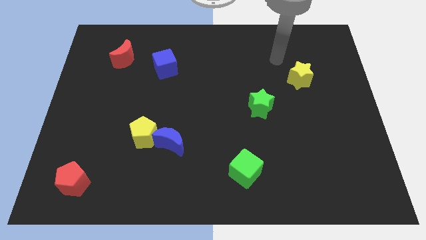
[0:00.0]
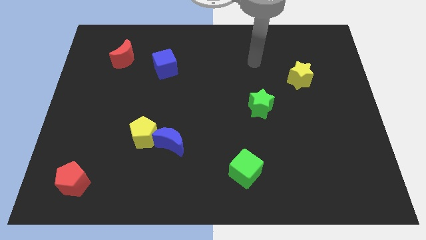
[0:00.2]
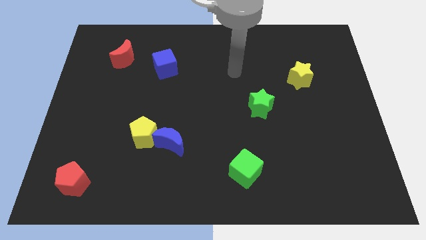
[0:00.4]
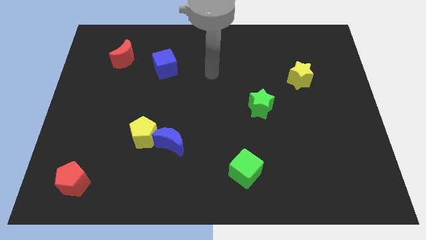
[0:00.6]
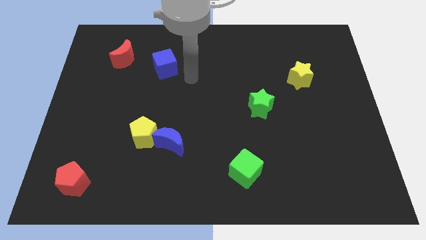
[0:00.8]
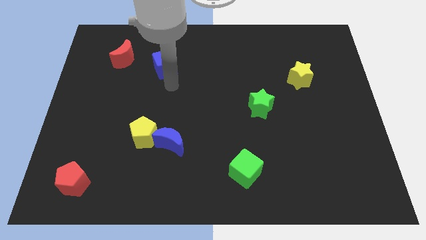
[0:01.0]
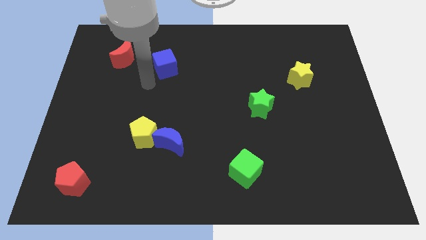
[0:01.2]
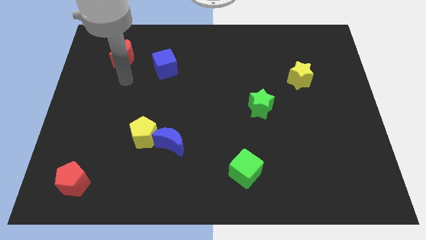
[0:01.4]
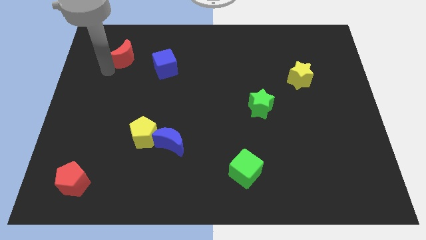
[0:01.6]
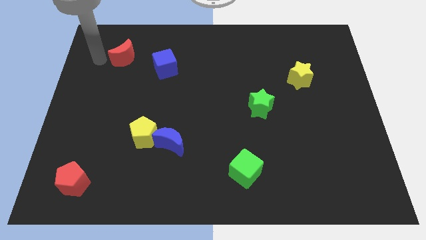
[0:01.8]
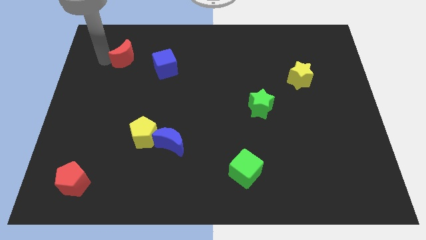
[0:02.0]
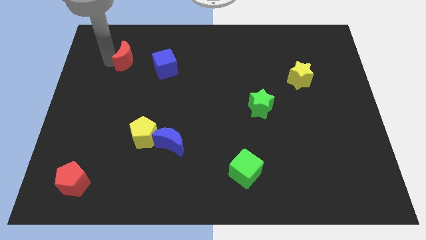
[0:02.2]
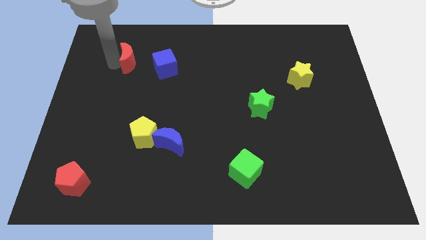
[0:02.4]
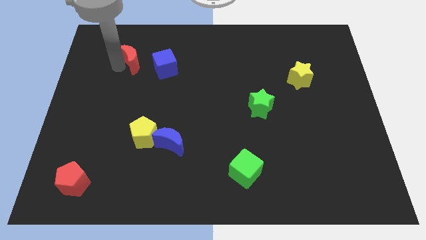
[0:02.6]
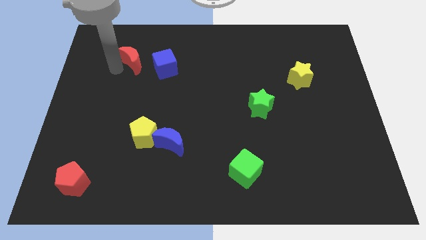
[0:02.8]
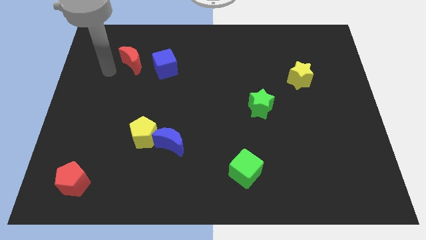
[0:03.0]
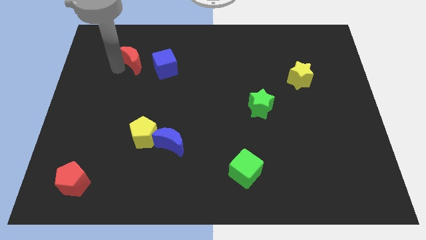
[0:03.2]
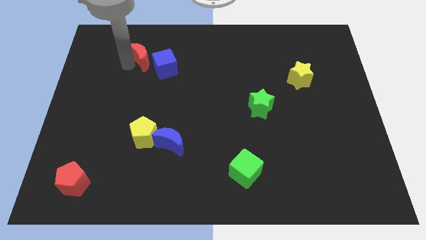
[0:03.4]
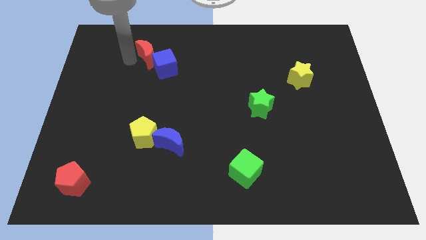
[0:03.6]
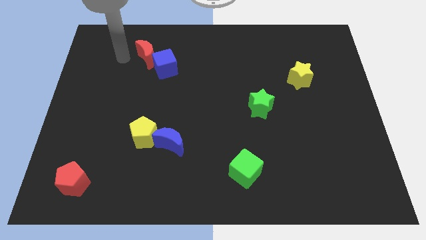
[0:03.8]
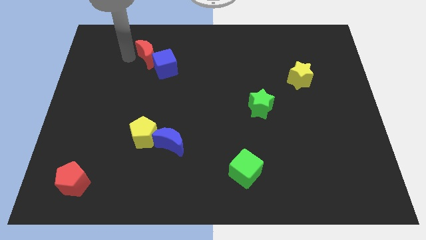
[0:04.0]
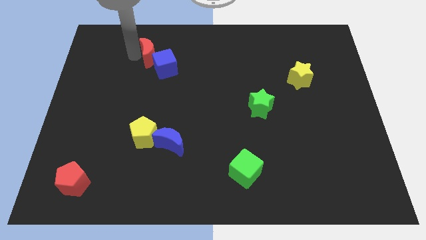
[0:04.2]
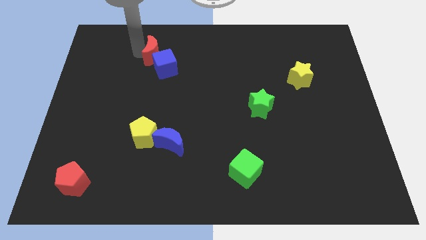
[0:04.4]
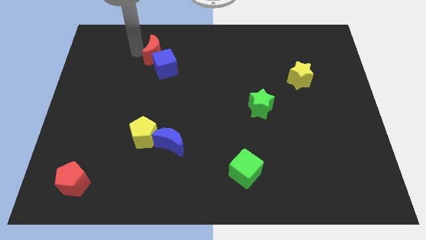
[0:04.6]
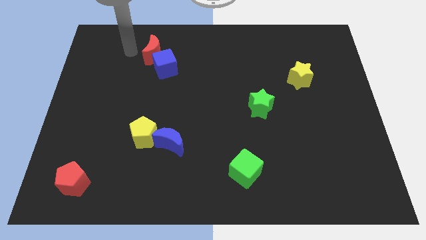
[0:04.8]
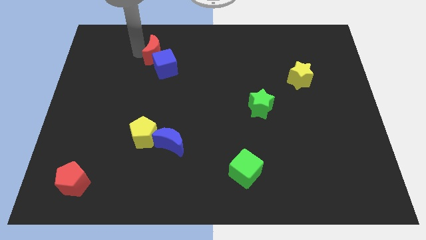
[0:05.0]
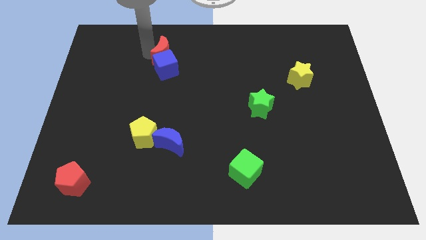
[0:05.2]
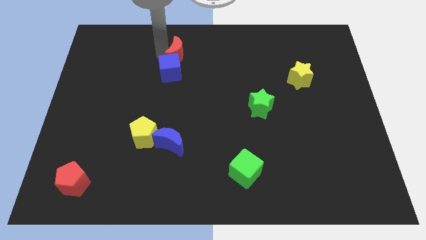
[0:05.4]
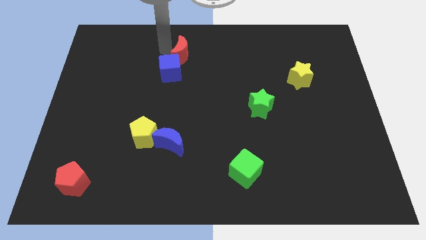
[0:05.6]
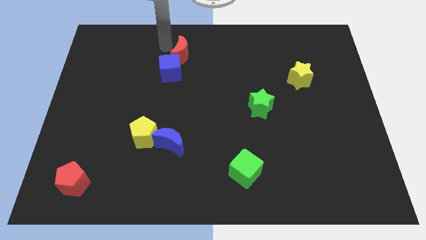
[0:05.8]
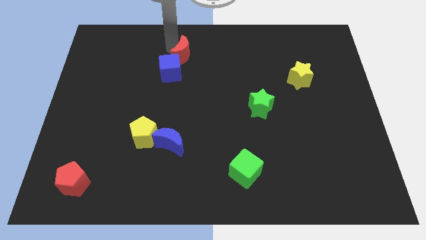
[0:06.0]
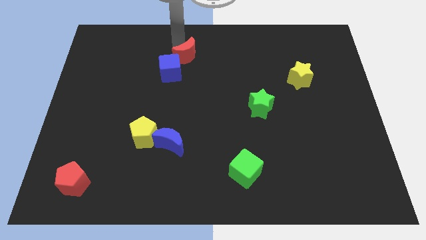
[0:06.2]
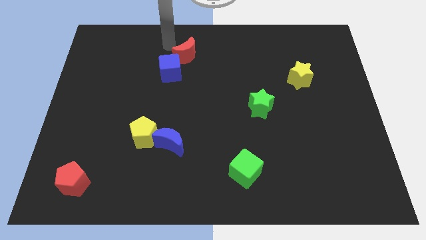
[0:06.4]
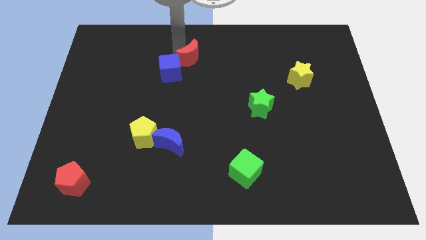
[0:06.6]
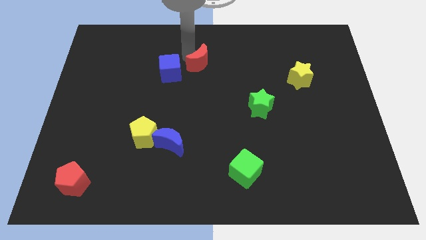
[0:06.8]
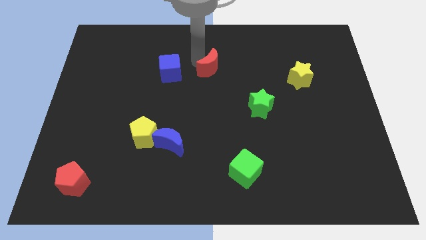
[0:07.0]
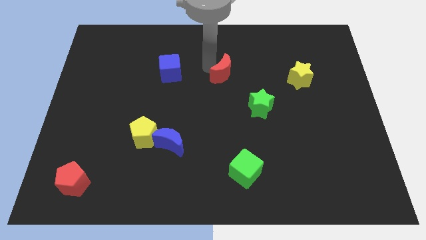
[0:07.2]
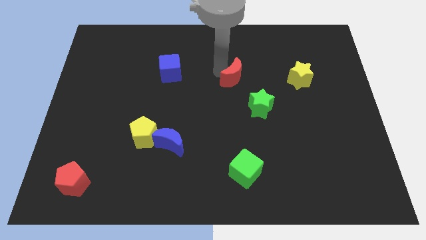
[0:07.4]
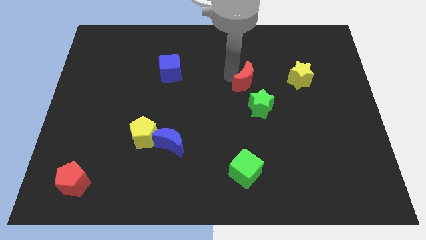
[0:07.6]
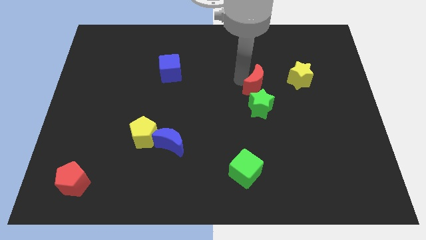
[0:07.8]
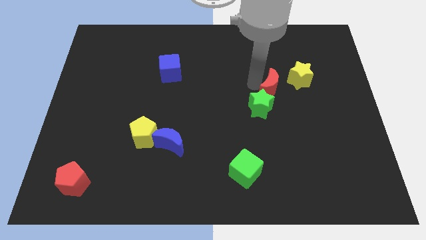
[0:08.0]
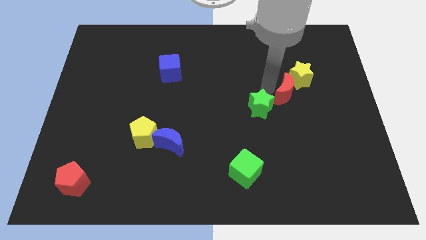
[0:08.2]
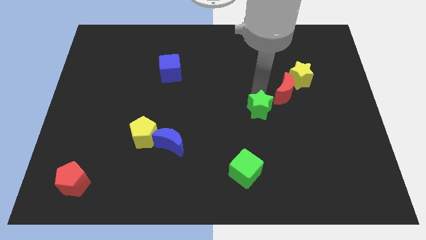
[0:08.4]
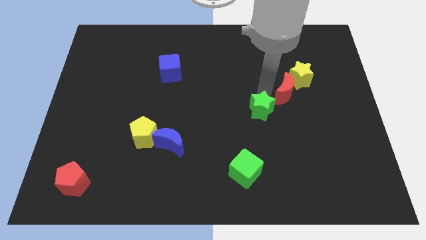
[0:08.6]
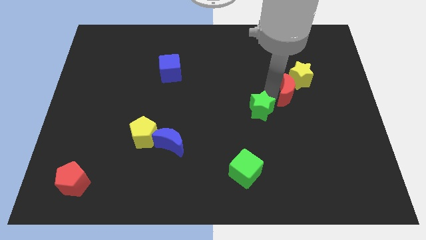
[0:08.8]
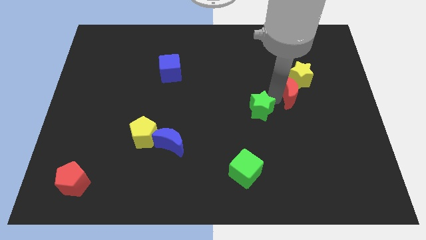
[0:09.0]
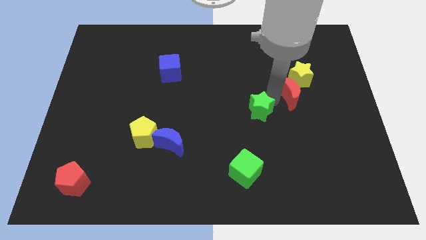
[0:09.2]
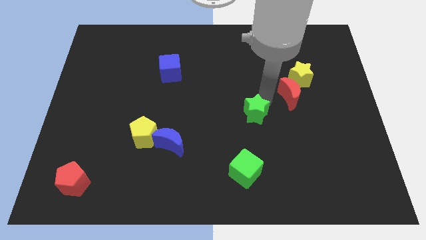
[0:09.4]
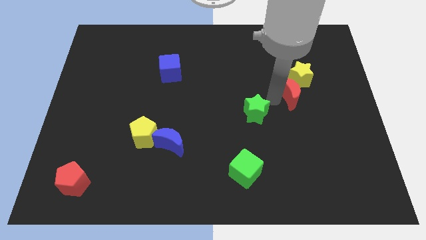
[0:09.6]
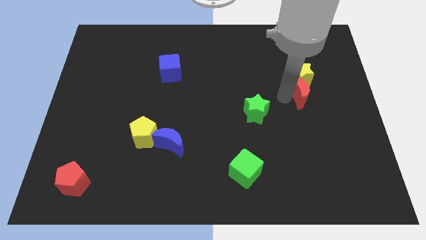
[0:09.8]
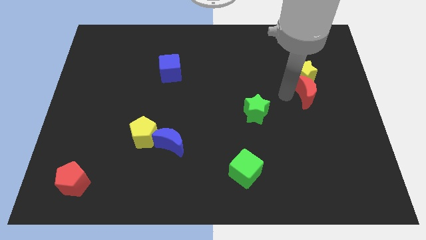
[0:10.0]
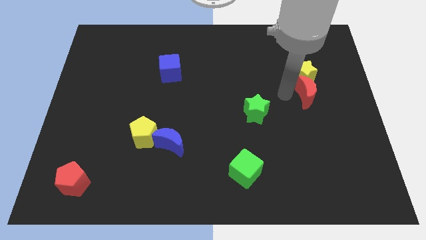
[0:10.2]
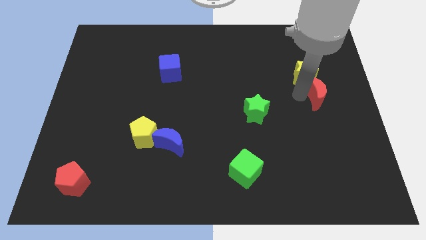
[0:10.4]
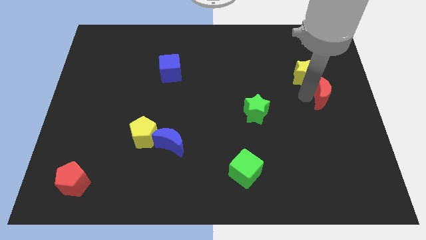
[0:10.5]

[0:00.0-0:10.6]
put the red moon to the right side of the board

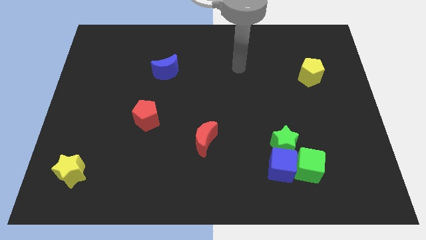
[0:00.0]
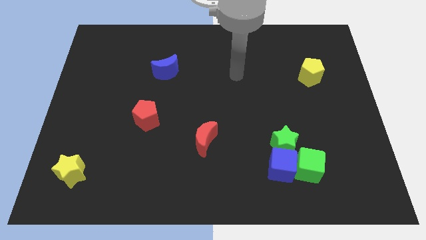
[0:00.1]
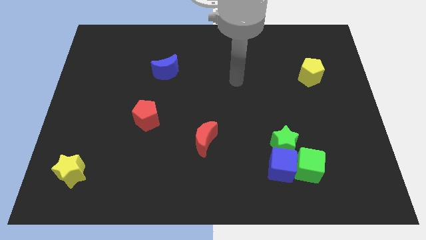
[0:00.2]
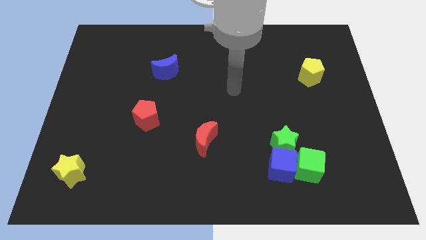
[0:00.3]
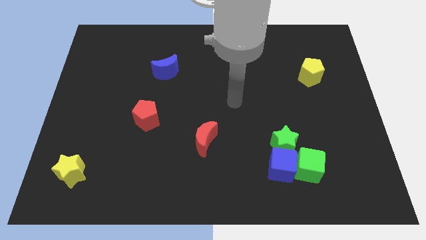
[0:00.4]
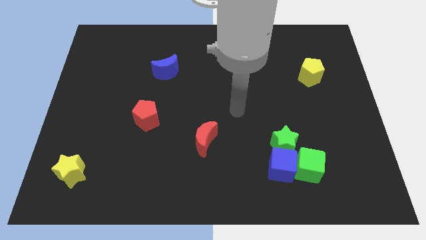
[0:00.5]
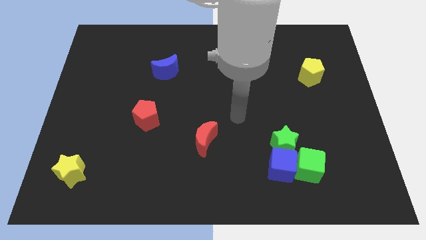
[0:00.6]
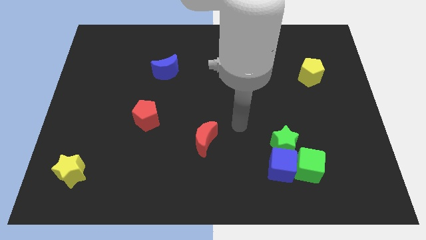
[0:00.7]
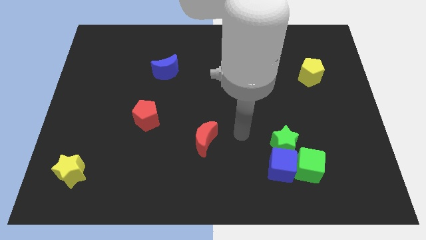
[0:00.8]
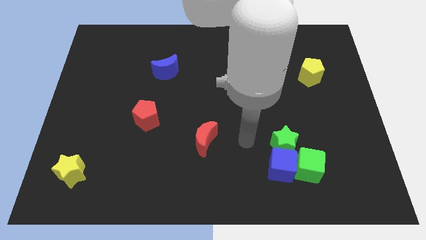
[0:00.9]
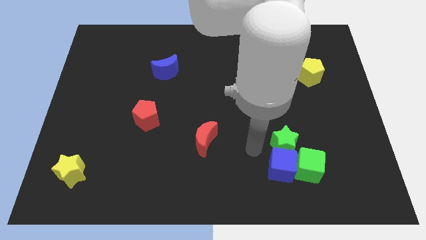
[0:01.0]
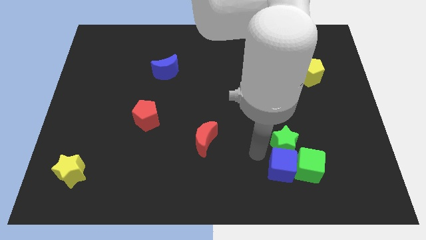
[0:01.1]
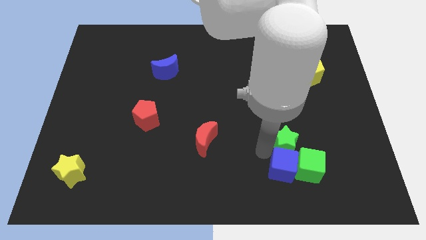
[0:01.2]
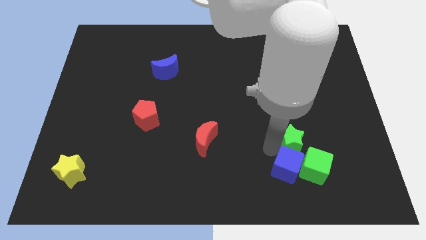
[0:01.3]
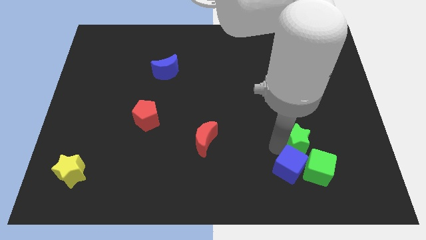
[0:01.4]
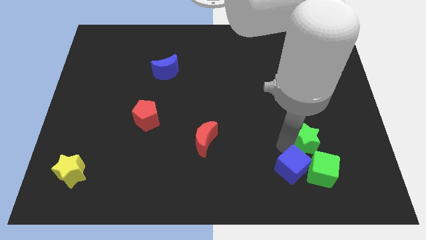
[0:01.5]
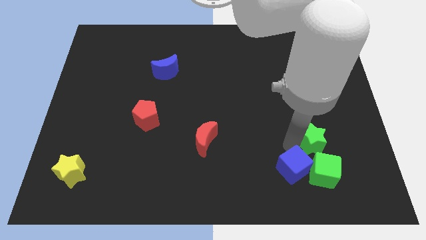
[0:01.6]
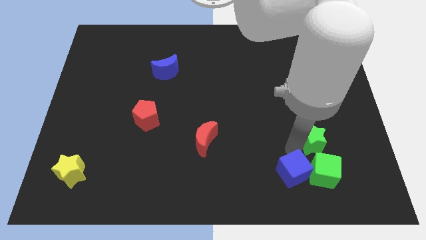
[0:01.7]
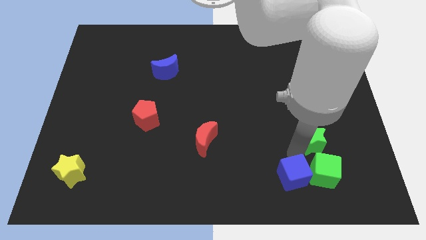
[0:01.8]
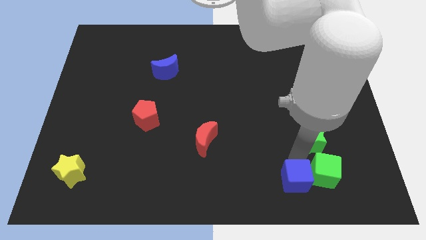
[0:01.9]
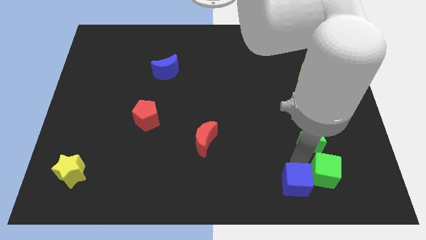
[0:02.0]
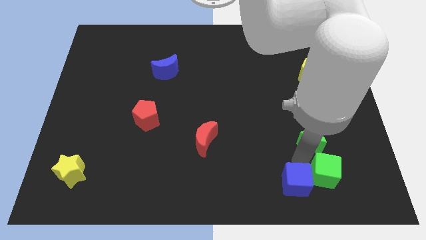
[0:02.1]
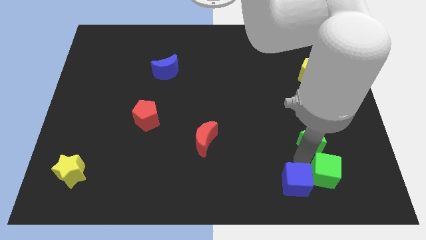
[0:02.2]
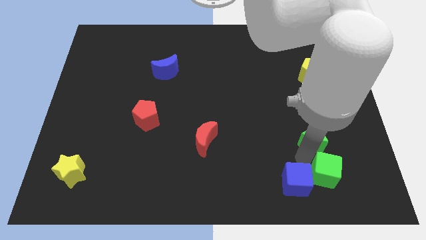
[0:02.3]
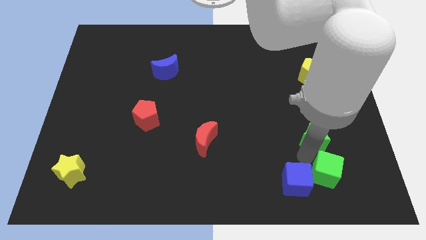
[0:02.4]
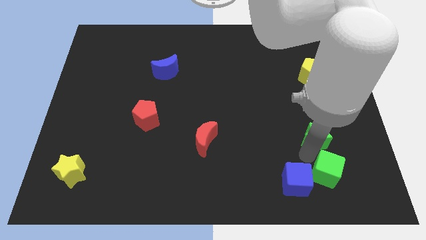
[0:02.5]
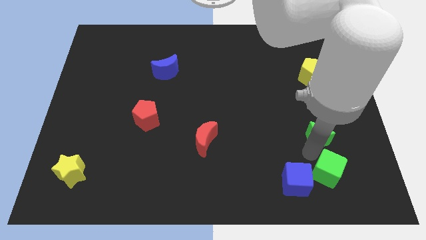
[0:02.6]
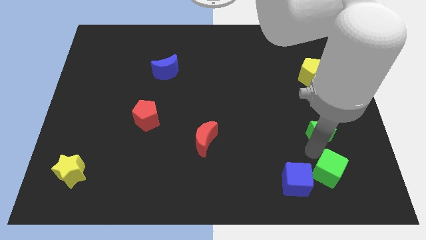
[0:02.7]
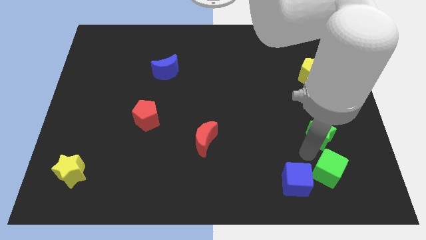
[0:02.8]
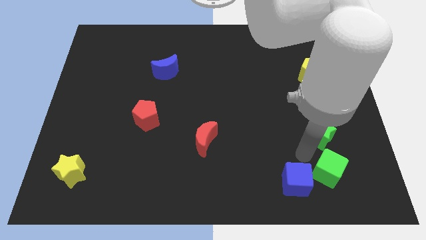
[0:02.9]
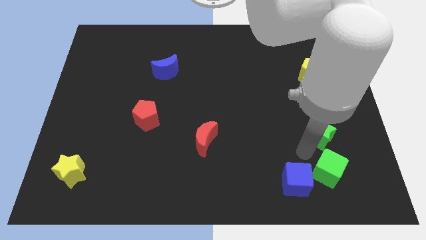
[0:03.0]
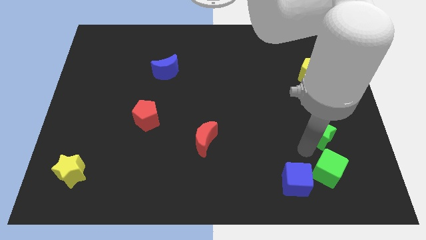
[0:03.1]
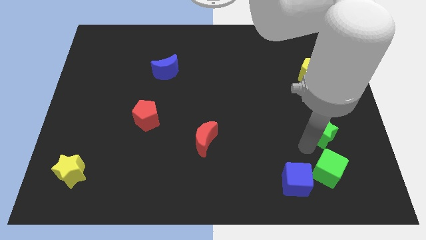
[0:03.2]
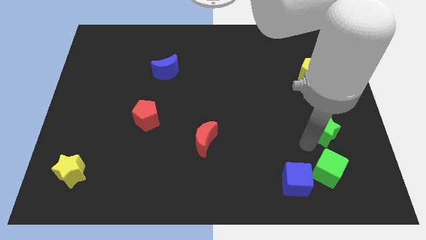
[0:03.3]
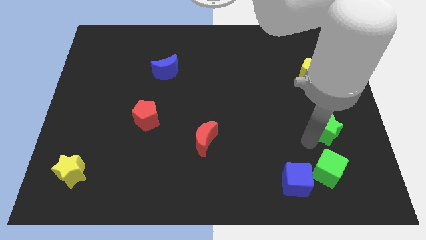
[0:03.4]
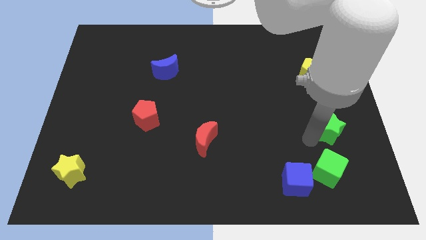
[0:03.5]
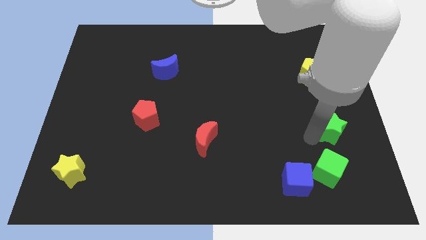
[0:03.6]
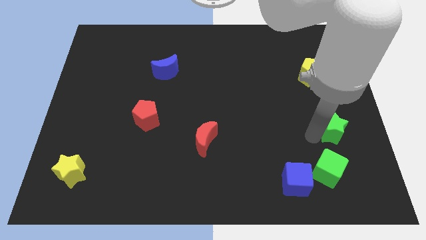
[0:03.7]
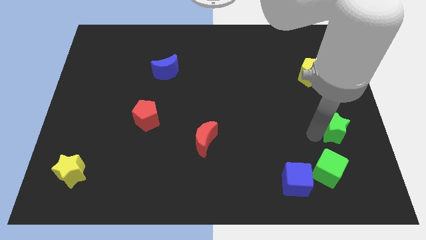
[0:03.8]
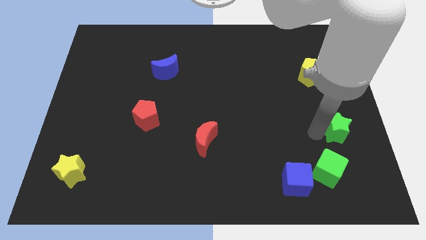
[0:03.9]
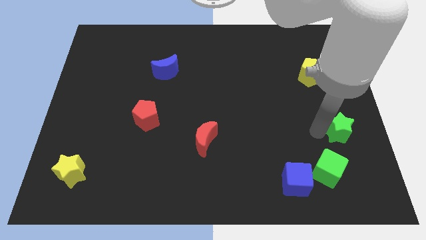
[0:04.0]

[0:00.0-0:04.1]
push the green star to the center right
